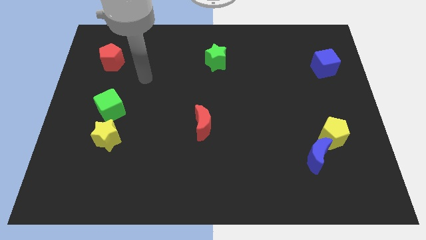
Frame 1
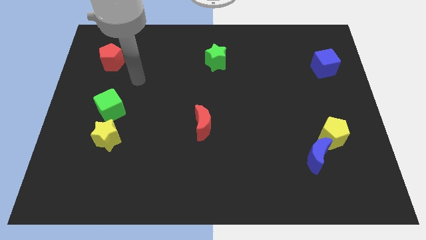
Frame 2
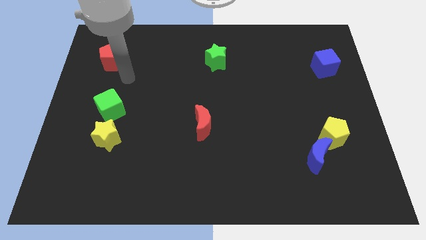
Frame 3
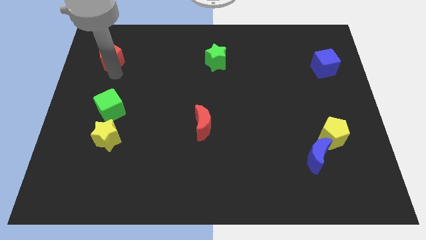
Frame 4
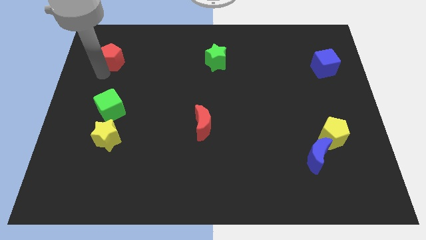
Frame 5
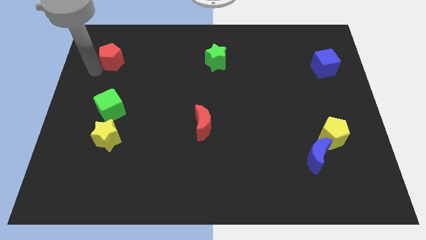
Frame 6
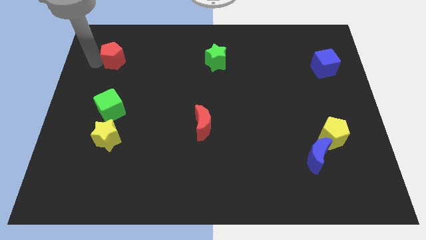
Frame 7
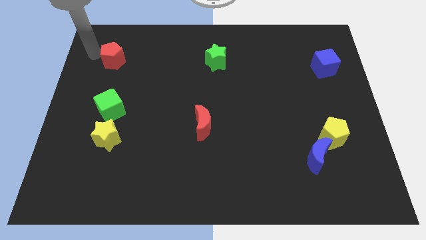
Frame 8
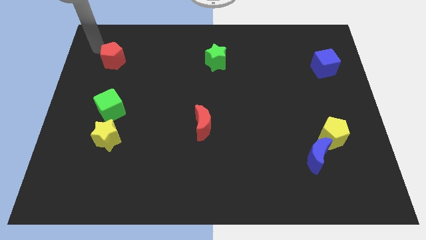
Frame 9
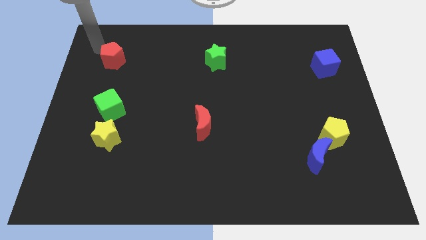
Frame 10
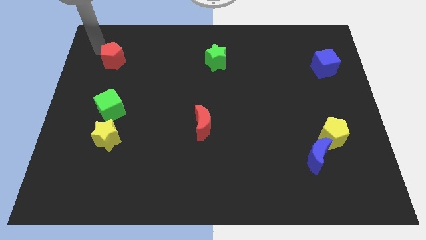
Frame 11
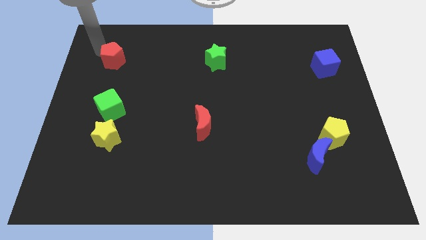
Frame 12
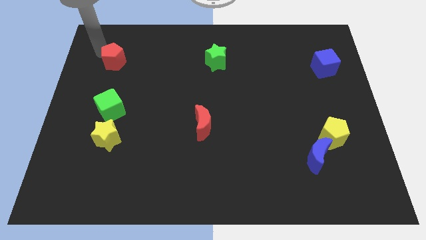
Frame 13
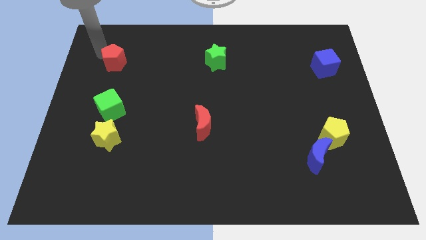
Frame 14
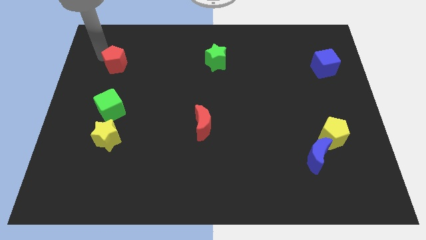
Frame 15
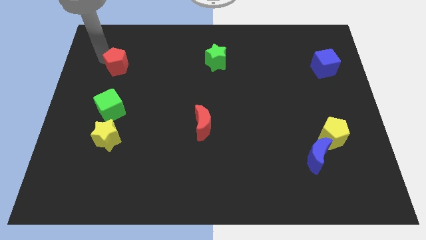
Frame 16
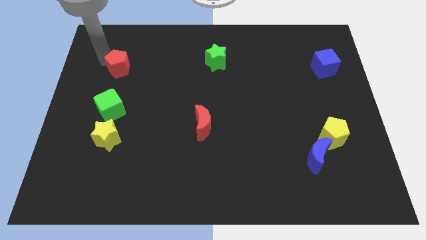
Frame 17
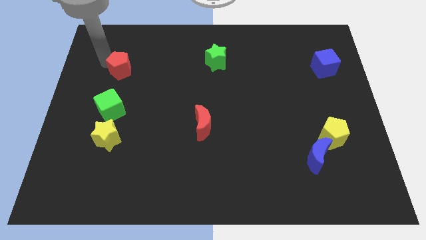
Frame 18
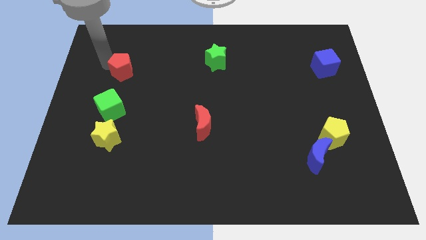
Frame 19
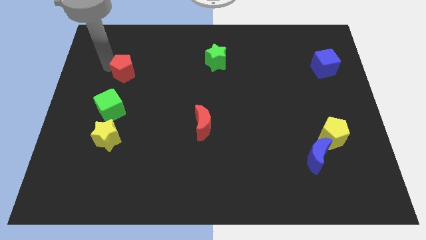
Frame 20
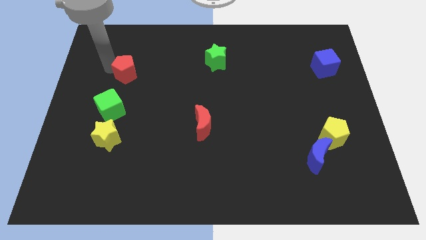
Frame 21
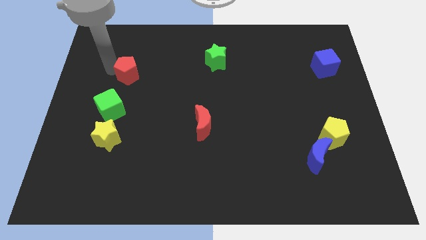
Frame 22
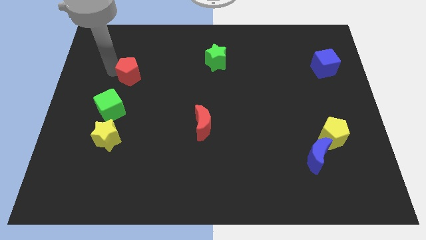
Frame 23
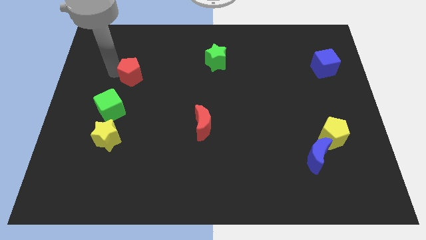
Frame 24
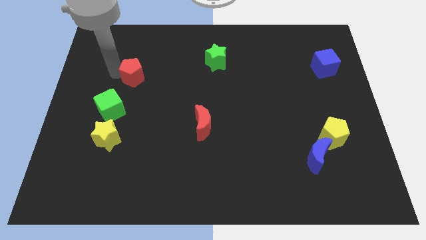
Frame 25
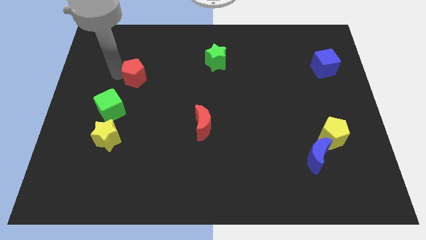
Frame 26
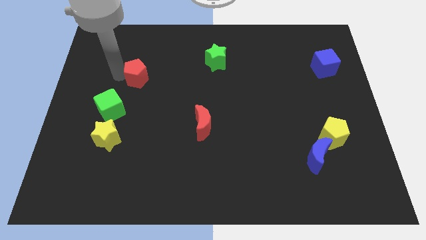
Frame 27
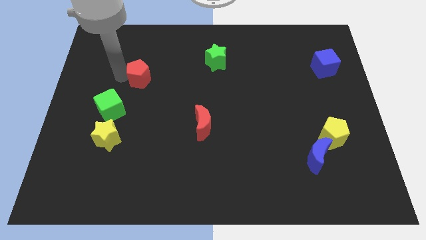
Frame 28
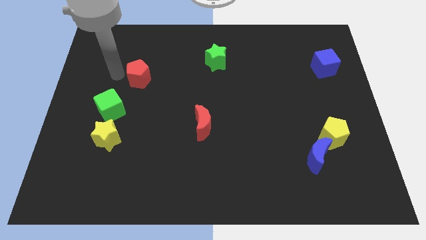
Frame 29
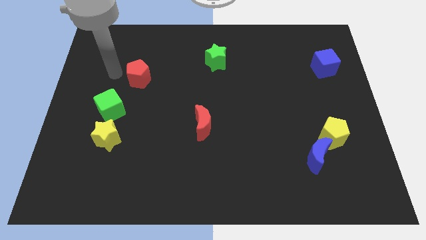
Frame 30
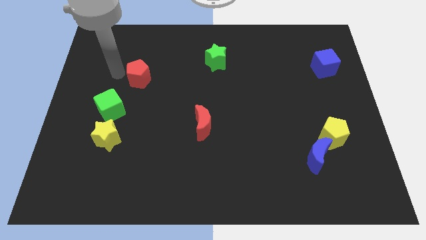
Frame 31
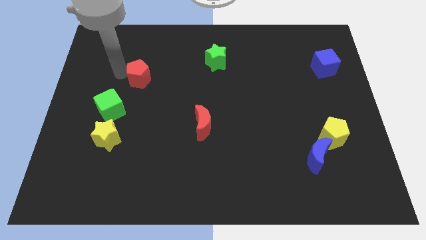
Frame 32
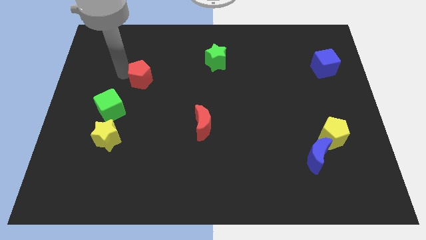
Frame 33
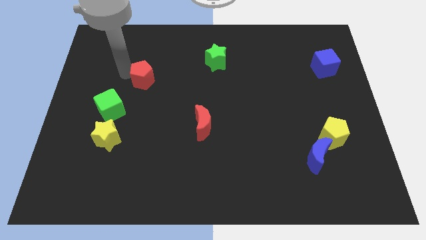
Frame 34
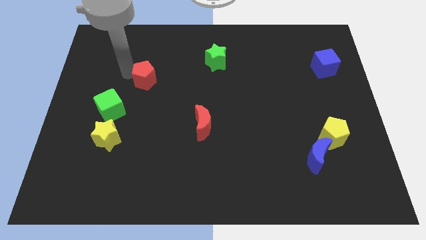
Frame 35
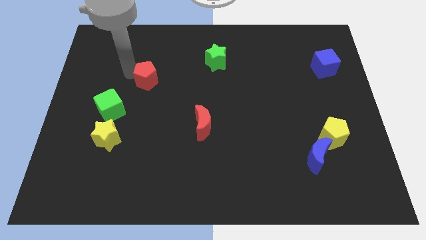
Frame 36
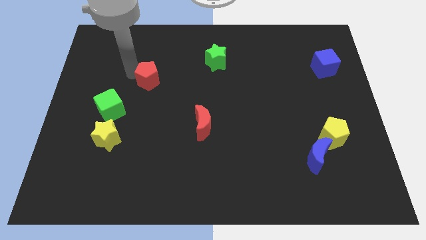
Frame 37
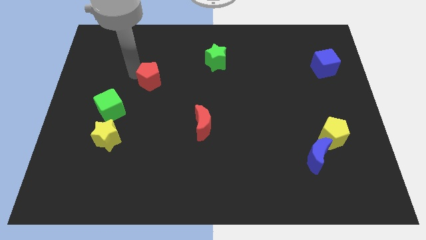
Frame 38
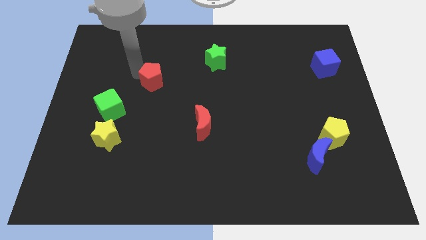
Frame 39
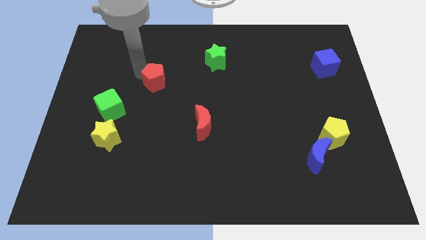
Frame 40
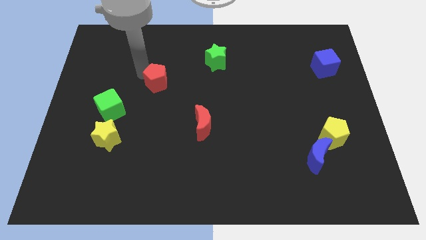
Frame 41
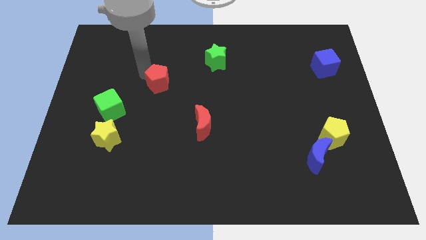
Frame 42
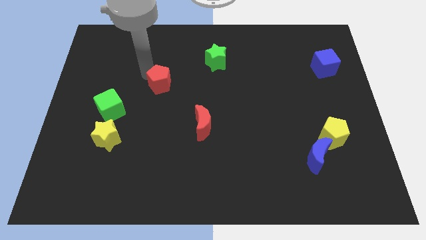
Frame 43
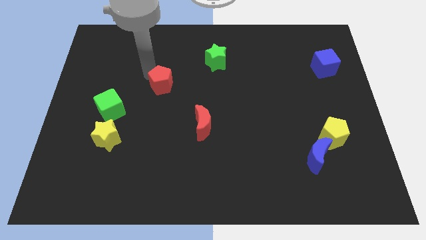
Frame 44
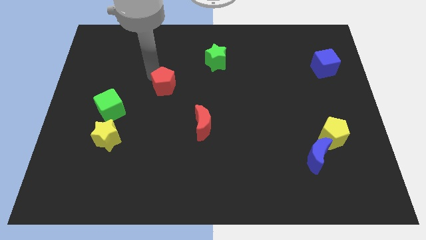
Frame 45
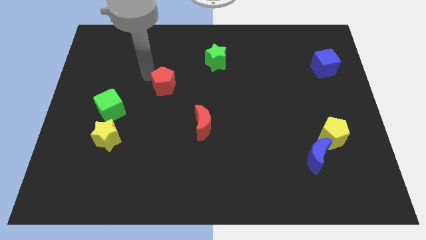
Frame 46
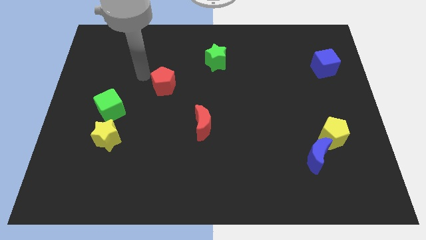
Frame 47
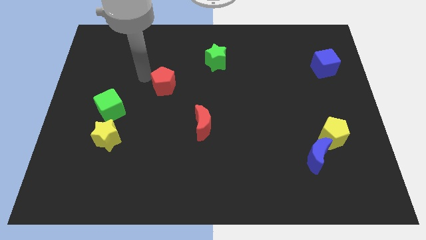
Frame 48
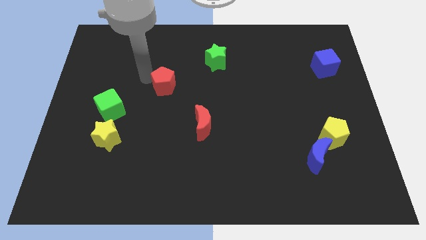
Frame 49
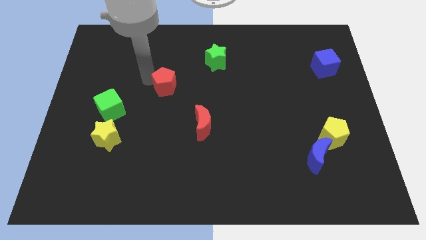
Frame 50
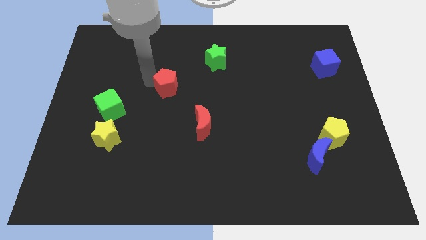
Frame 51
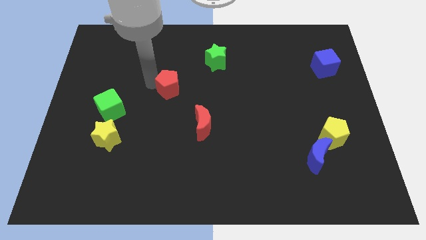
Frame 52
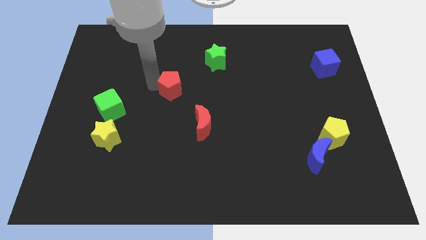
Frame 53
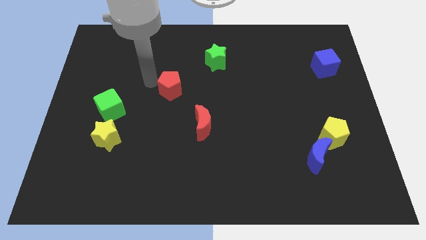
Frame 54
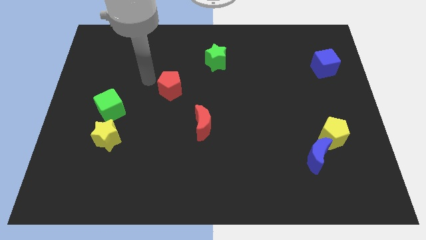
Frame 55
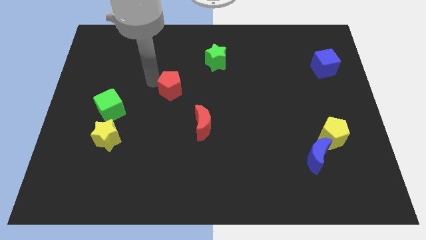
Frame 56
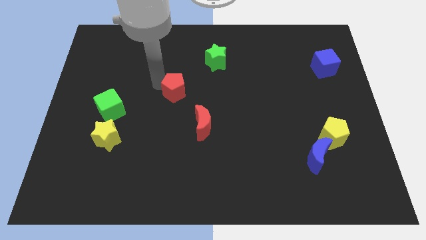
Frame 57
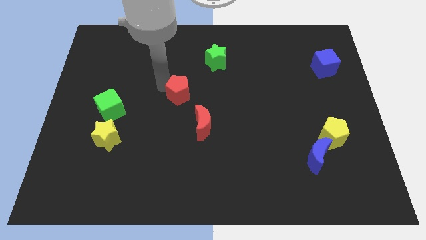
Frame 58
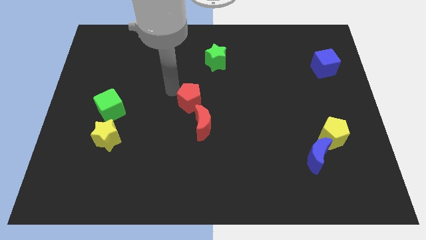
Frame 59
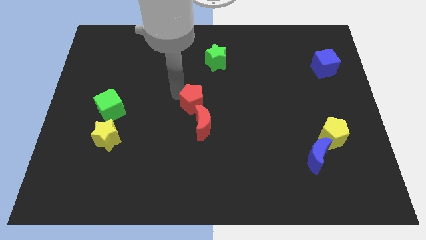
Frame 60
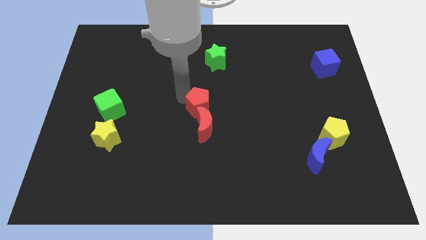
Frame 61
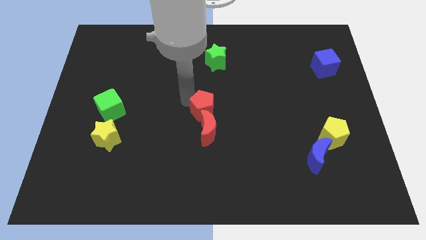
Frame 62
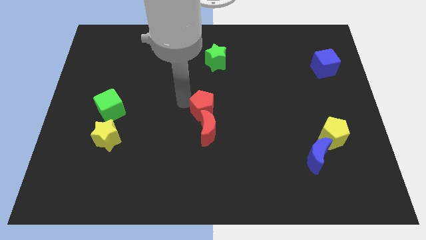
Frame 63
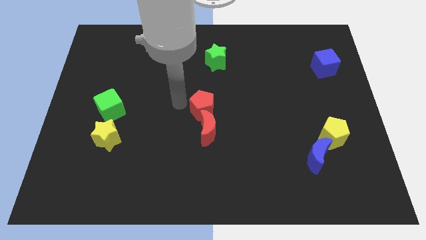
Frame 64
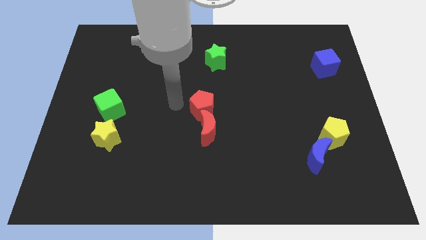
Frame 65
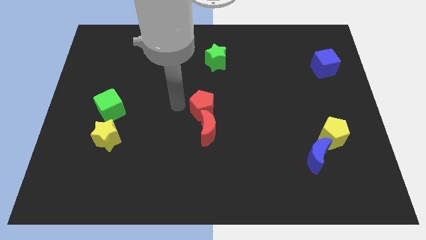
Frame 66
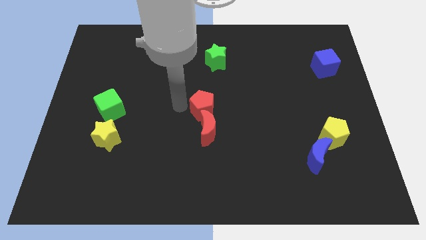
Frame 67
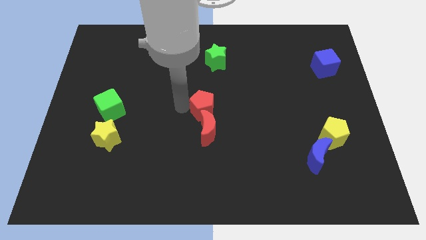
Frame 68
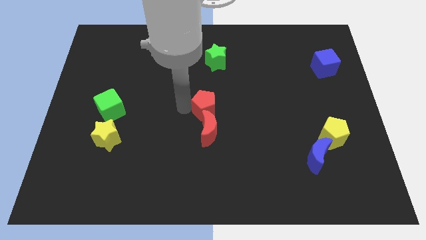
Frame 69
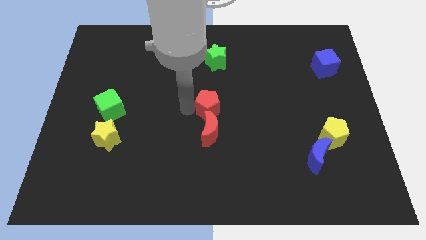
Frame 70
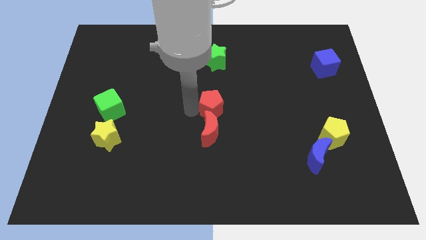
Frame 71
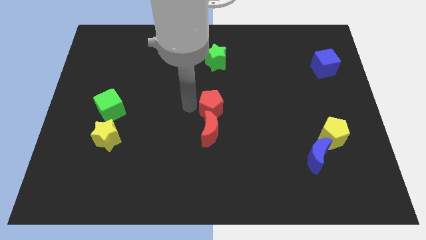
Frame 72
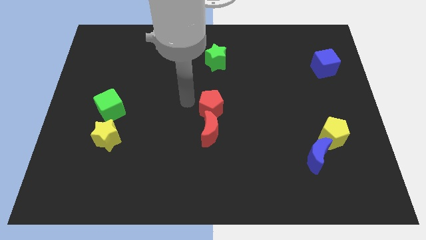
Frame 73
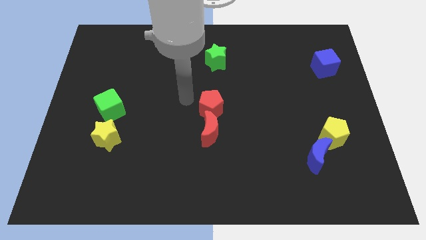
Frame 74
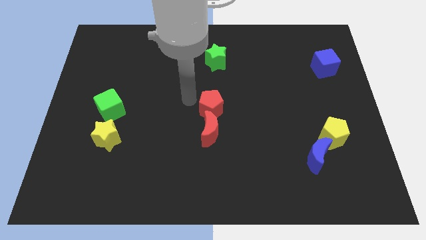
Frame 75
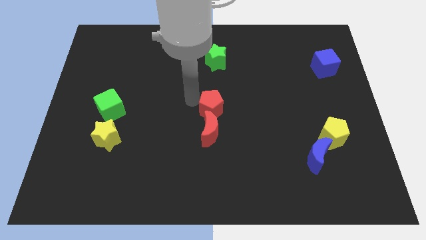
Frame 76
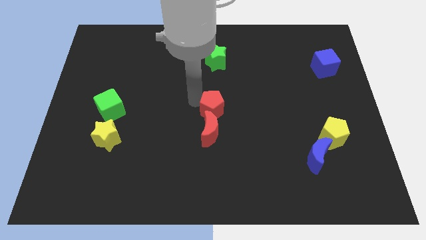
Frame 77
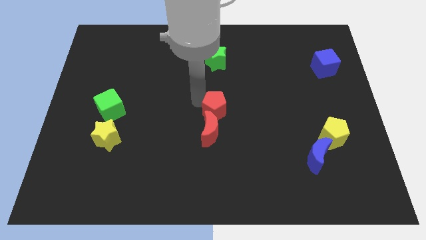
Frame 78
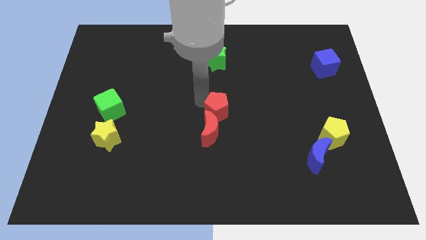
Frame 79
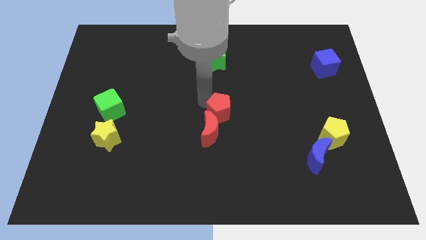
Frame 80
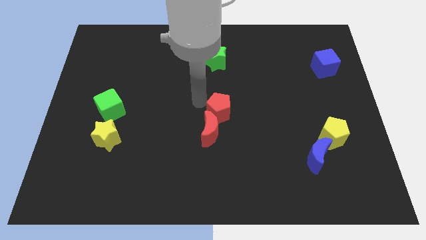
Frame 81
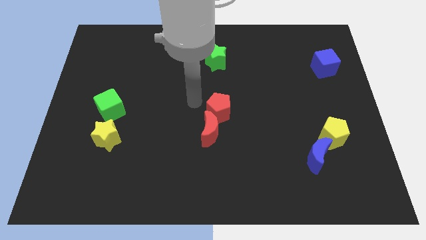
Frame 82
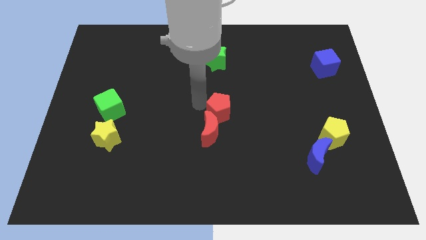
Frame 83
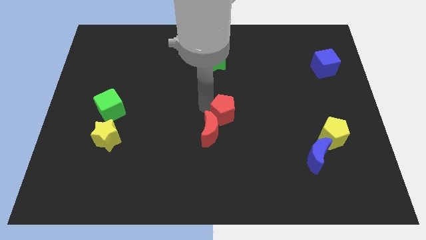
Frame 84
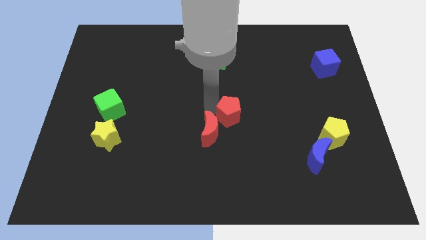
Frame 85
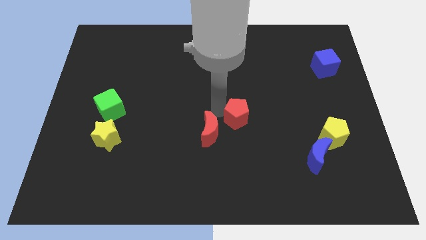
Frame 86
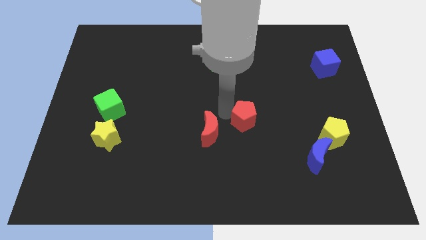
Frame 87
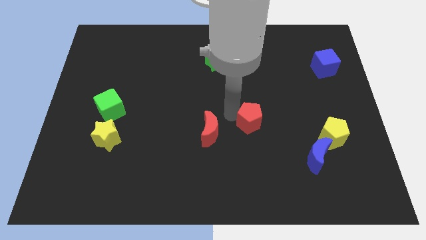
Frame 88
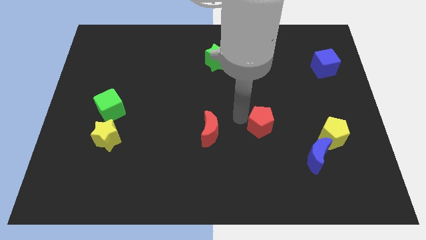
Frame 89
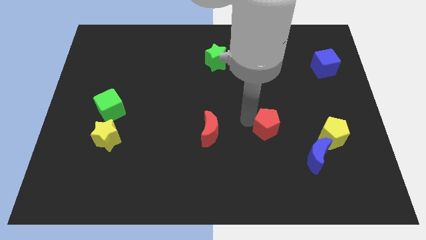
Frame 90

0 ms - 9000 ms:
move the red pentagon just left of the yellow pentagon
